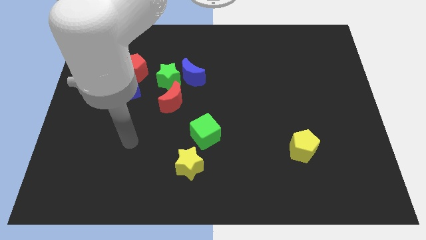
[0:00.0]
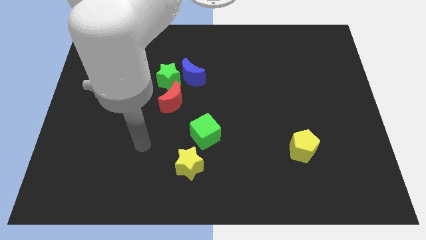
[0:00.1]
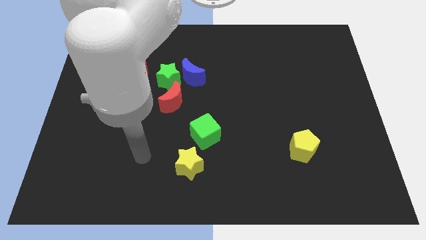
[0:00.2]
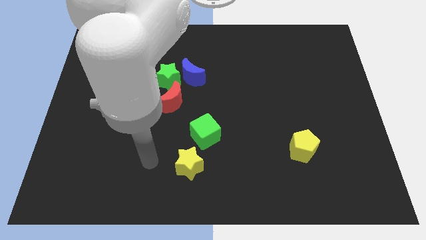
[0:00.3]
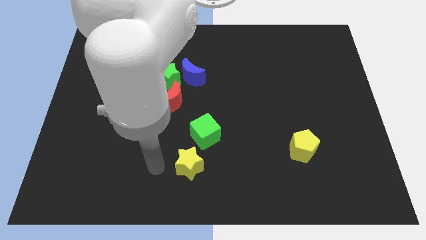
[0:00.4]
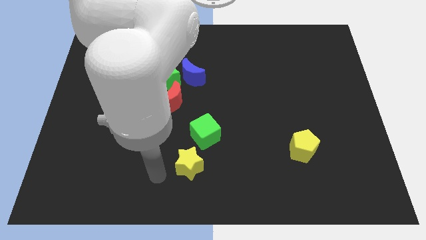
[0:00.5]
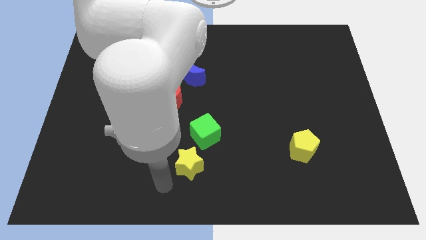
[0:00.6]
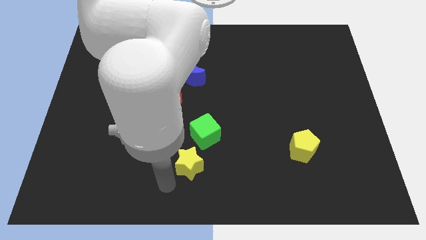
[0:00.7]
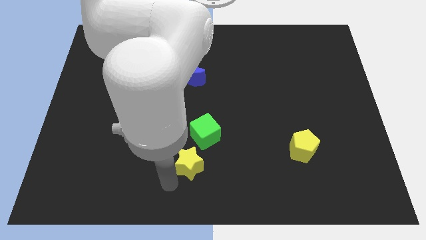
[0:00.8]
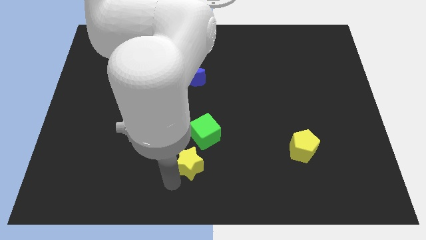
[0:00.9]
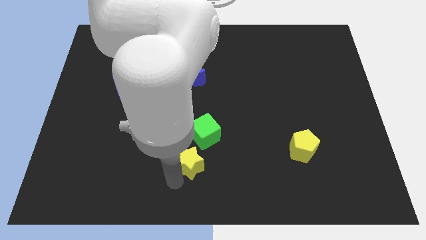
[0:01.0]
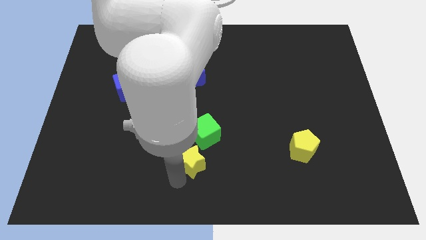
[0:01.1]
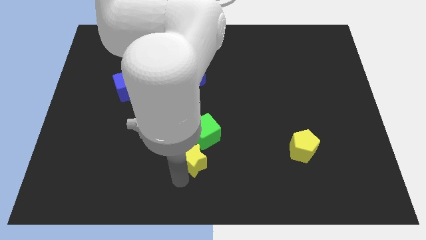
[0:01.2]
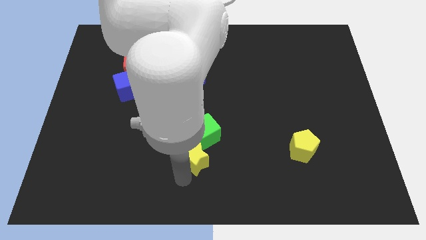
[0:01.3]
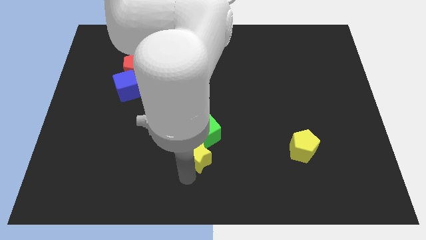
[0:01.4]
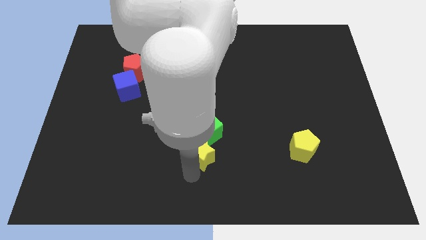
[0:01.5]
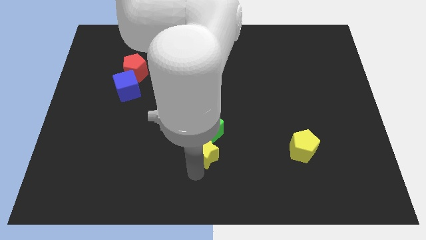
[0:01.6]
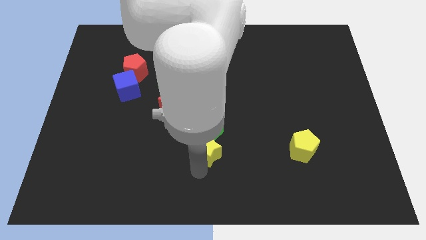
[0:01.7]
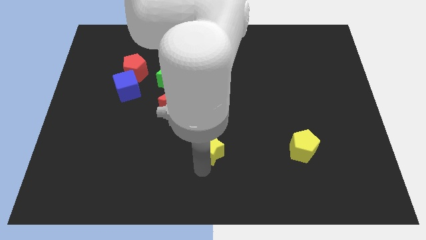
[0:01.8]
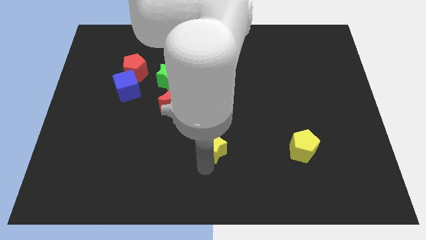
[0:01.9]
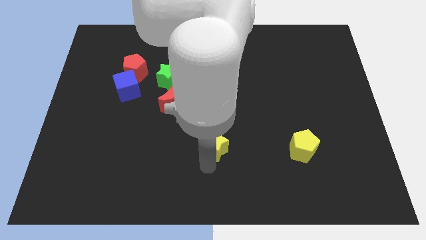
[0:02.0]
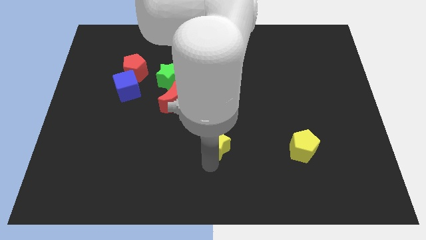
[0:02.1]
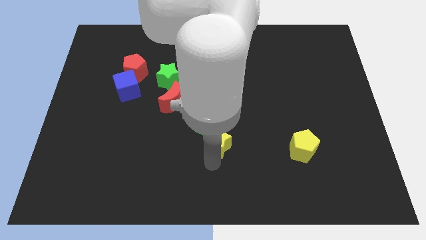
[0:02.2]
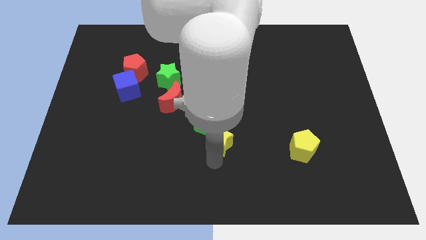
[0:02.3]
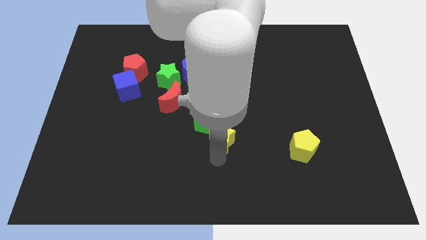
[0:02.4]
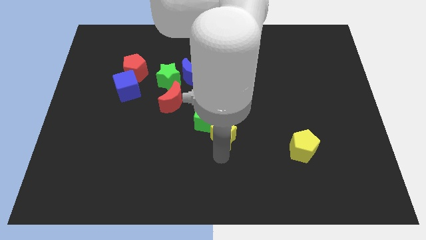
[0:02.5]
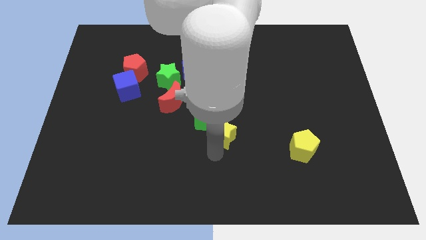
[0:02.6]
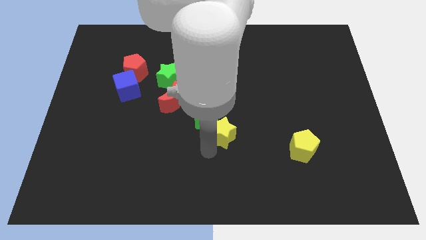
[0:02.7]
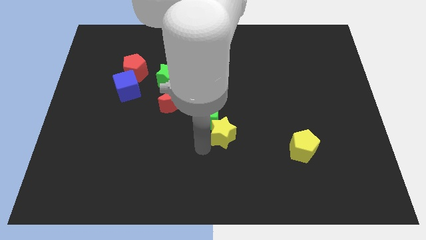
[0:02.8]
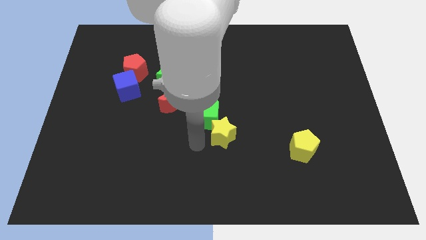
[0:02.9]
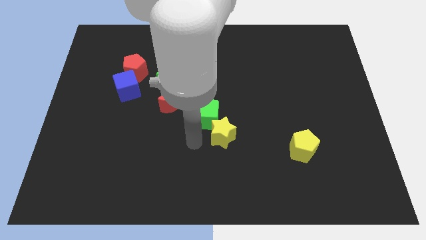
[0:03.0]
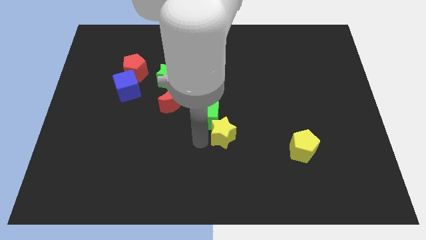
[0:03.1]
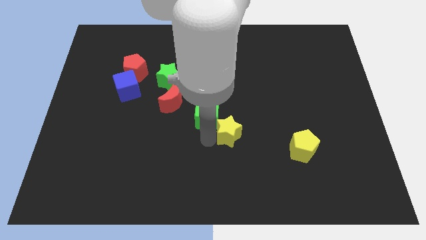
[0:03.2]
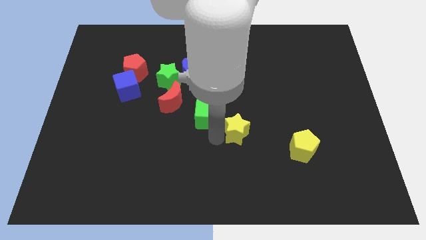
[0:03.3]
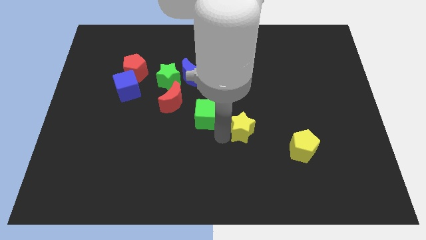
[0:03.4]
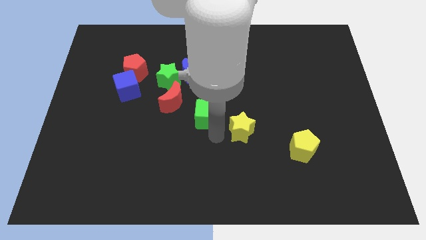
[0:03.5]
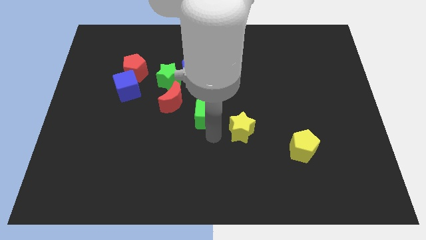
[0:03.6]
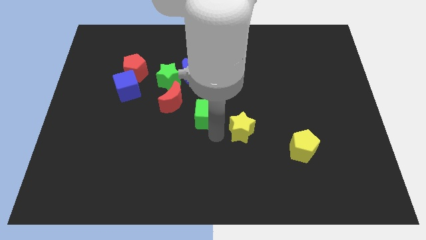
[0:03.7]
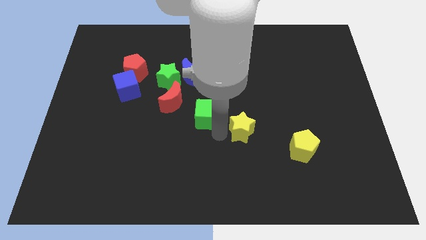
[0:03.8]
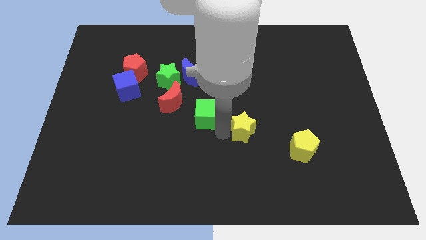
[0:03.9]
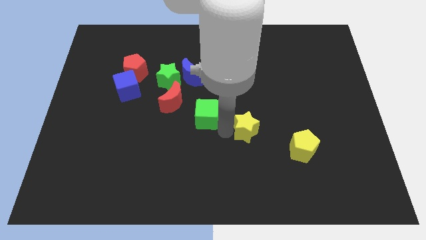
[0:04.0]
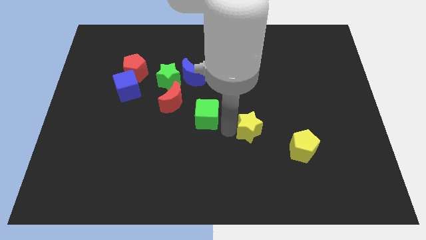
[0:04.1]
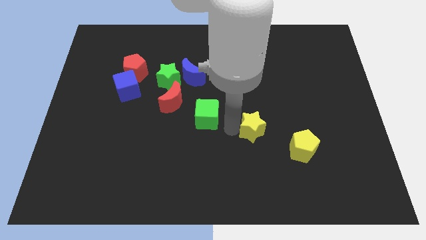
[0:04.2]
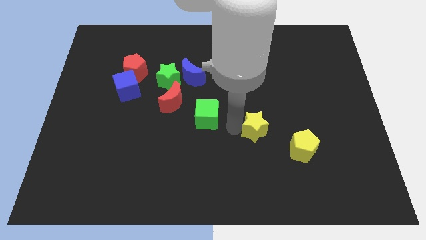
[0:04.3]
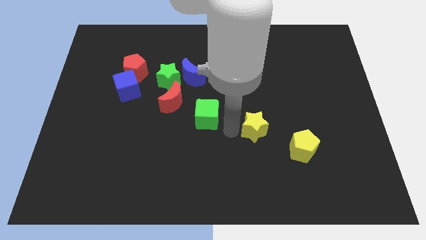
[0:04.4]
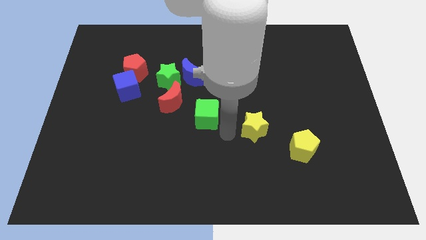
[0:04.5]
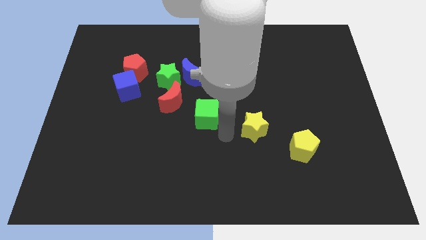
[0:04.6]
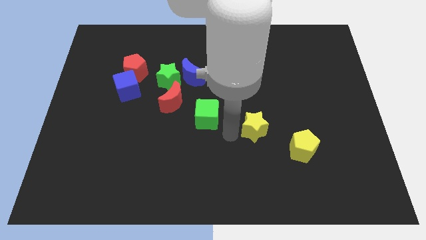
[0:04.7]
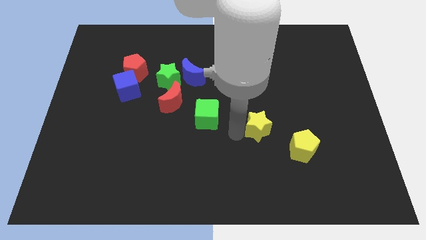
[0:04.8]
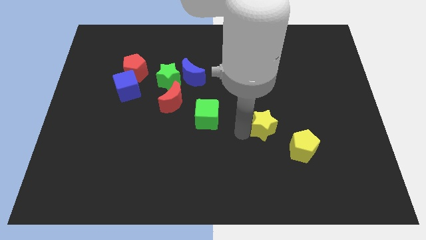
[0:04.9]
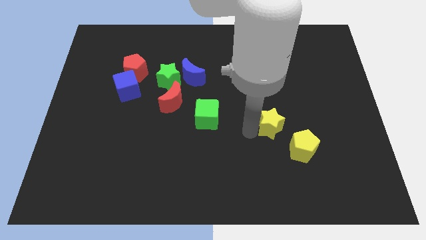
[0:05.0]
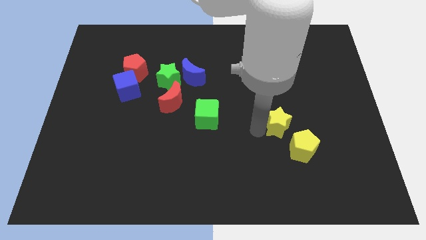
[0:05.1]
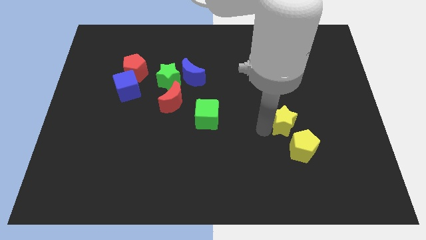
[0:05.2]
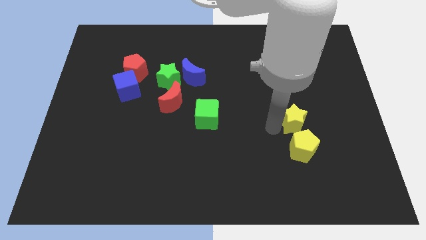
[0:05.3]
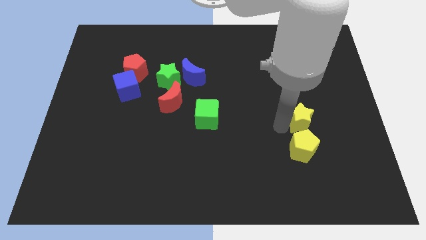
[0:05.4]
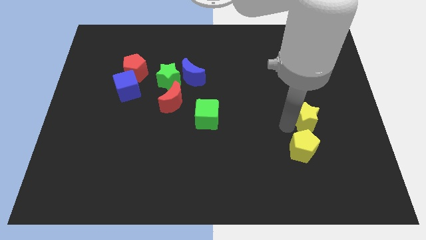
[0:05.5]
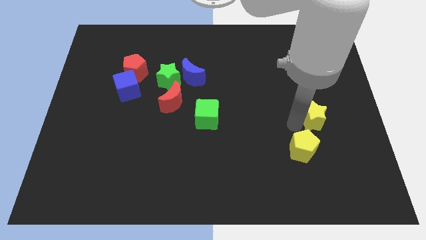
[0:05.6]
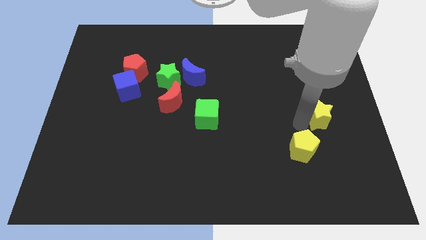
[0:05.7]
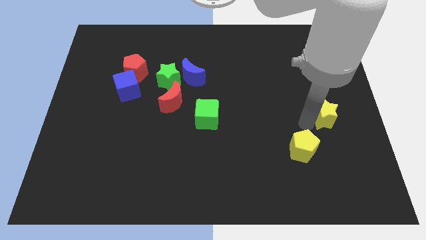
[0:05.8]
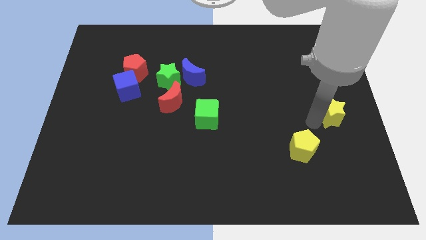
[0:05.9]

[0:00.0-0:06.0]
put the yellow star to the right side

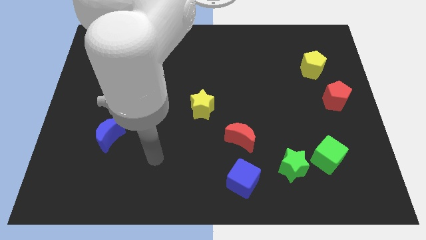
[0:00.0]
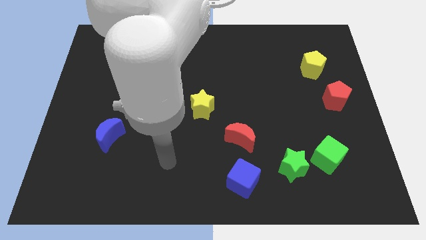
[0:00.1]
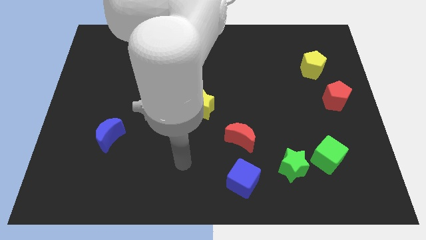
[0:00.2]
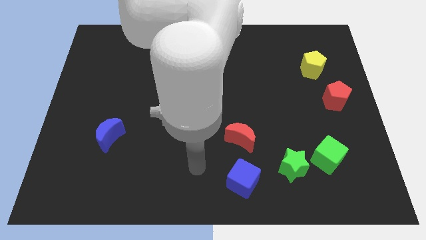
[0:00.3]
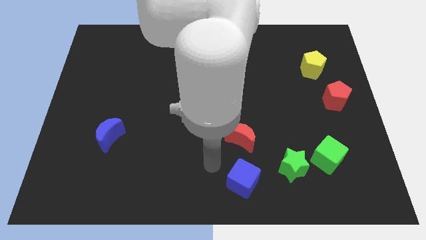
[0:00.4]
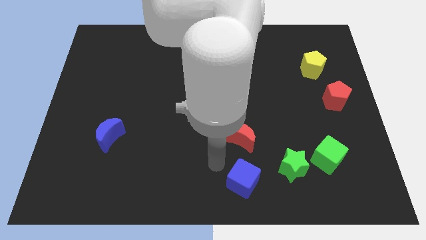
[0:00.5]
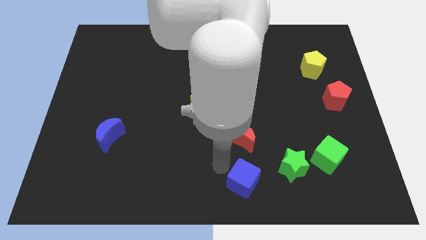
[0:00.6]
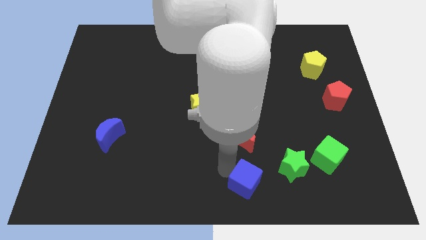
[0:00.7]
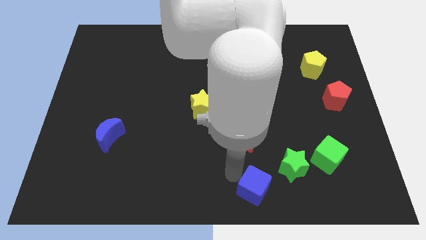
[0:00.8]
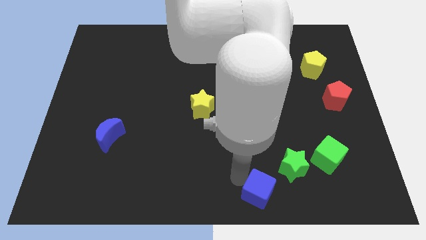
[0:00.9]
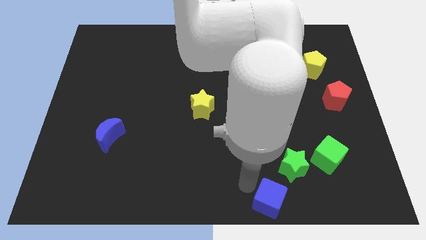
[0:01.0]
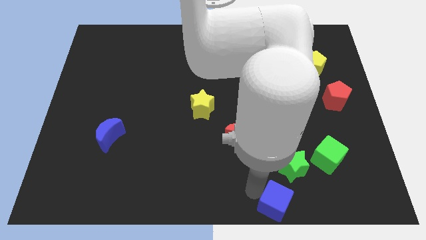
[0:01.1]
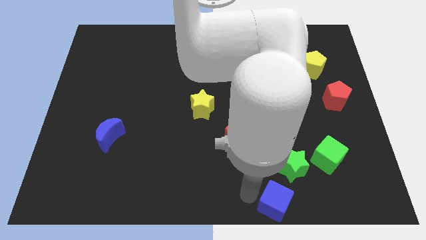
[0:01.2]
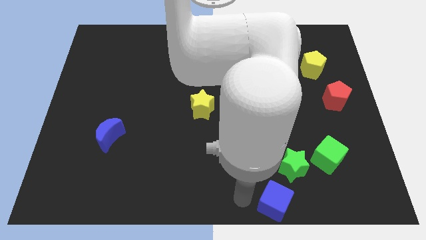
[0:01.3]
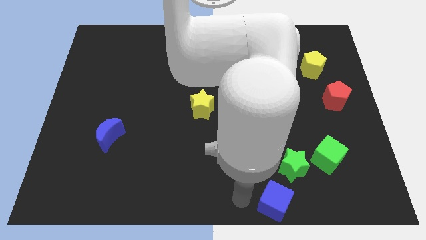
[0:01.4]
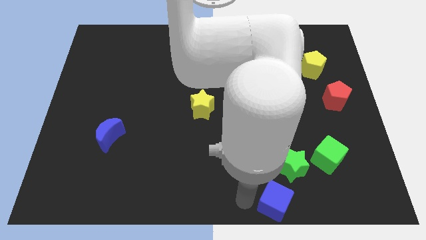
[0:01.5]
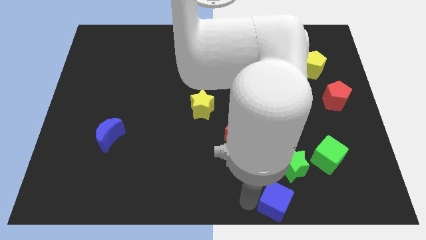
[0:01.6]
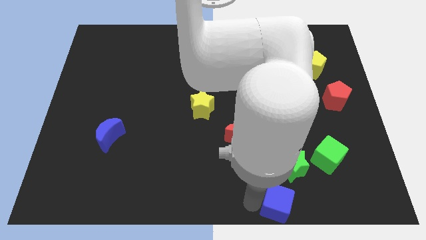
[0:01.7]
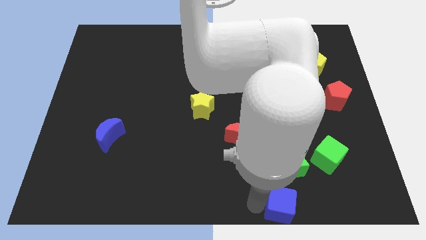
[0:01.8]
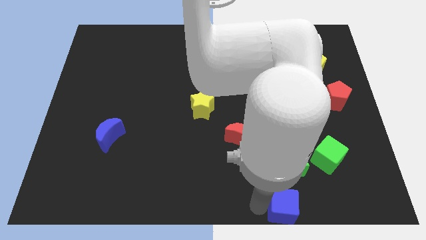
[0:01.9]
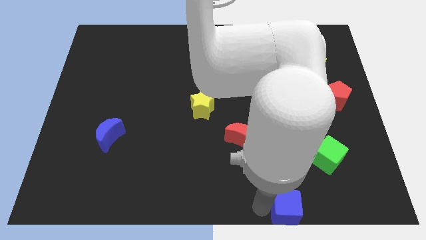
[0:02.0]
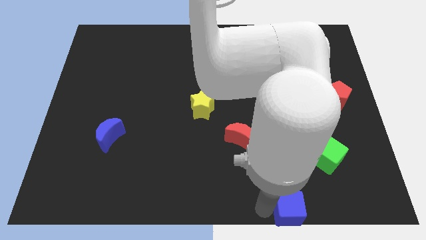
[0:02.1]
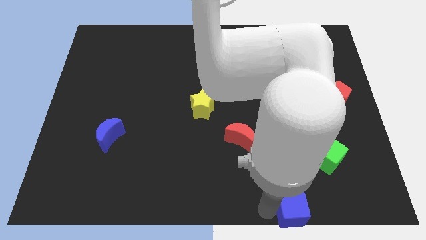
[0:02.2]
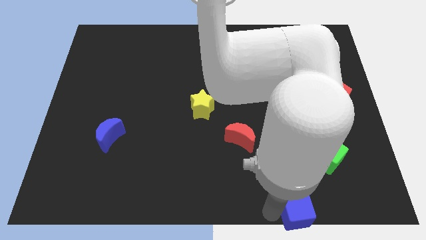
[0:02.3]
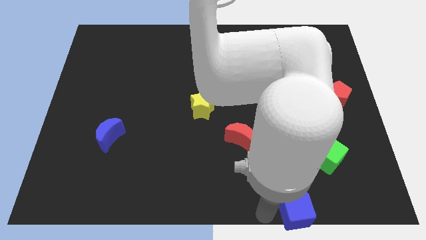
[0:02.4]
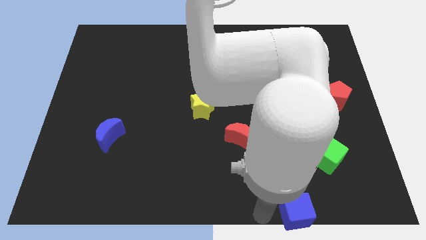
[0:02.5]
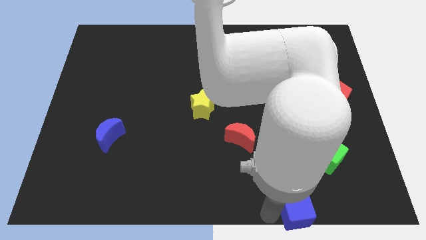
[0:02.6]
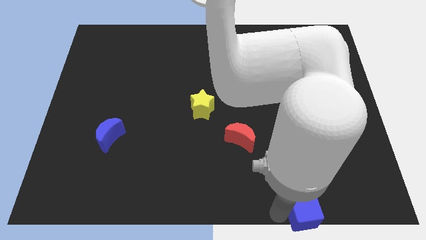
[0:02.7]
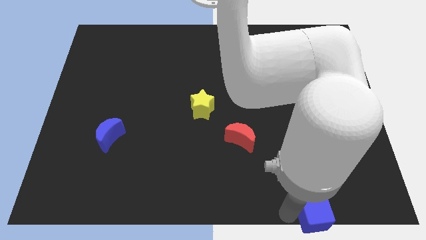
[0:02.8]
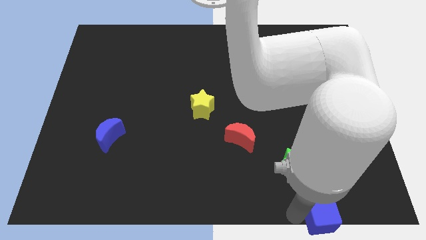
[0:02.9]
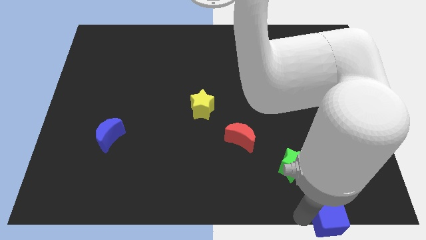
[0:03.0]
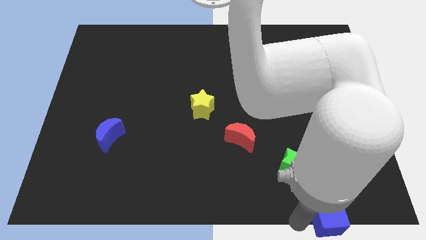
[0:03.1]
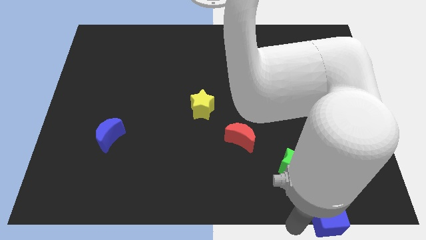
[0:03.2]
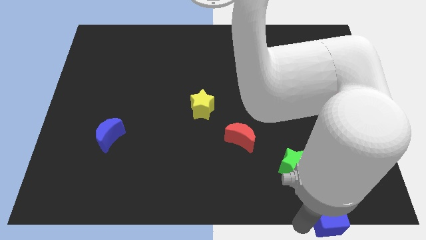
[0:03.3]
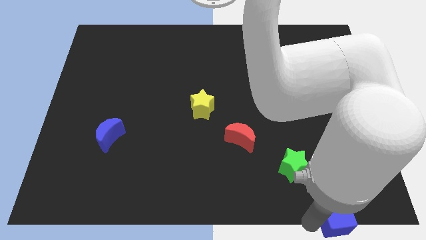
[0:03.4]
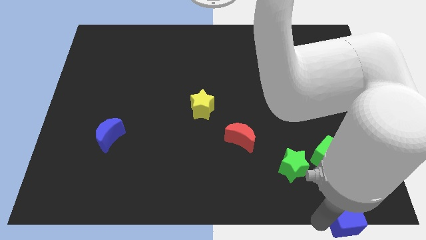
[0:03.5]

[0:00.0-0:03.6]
slide the blue cube to the bottom right of the board
